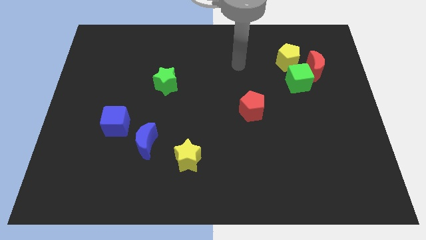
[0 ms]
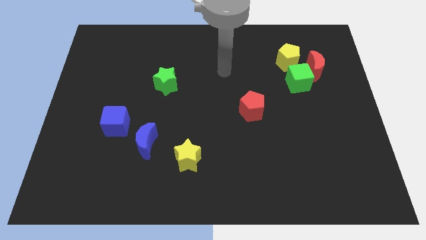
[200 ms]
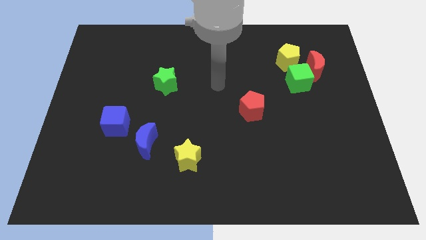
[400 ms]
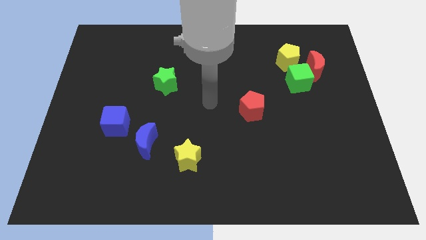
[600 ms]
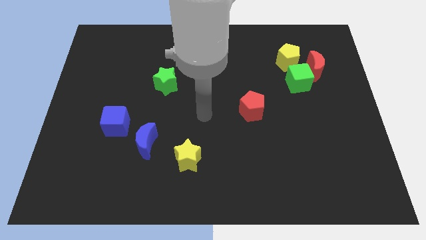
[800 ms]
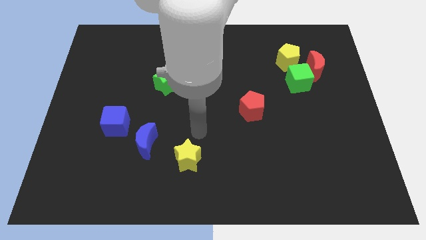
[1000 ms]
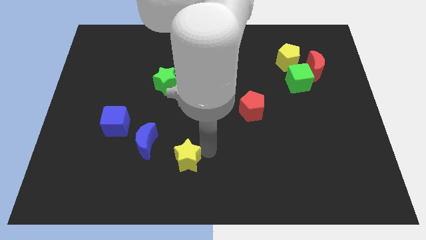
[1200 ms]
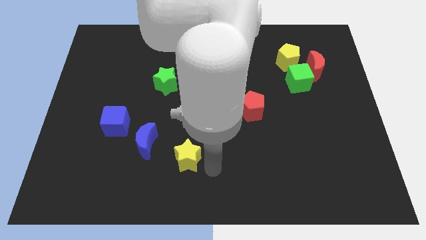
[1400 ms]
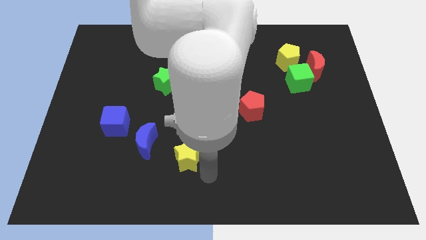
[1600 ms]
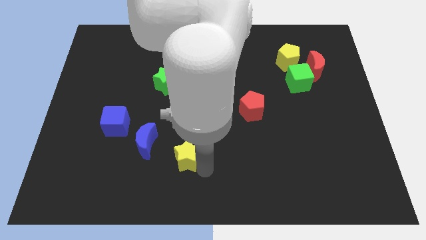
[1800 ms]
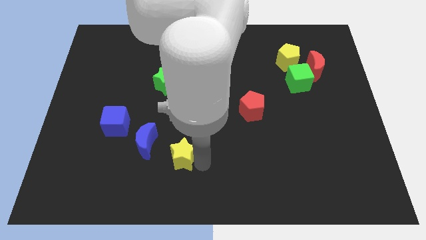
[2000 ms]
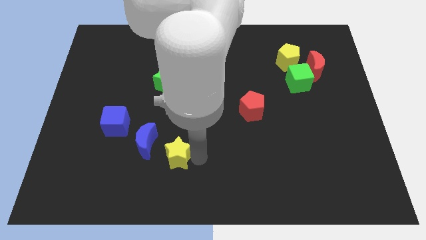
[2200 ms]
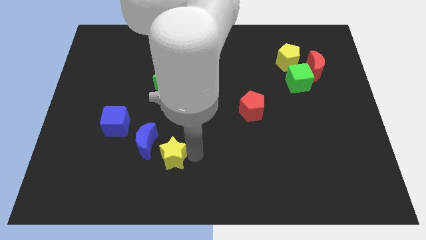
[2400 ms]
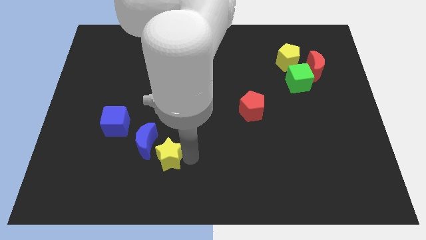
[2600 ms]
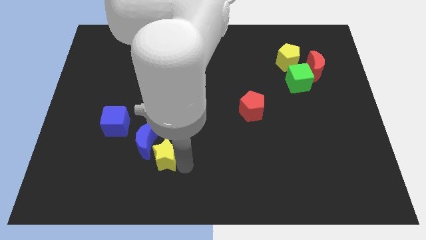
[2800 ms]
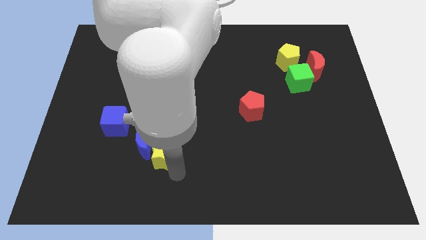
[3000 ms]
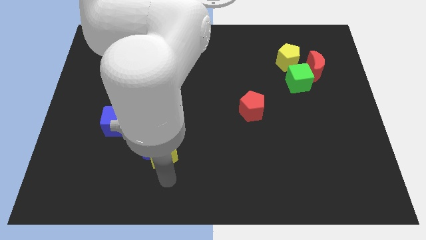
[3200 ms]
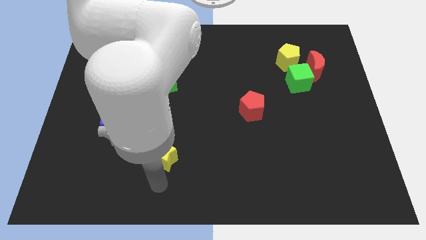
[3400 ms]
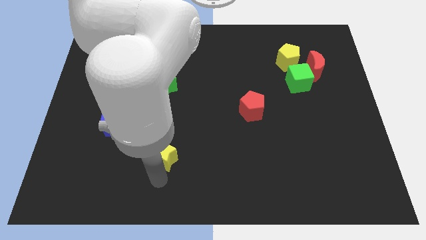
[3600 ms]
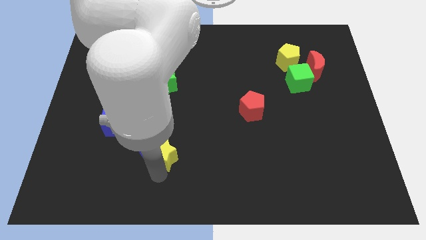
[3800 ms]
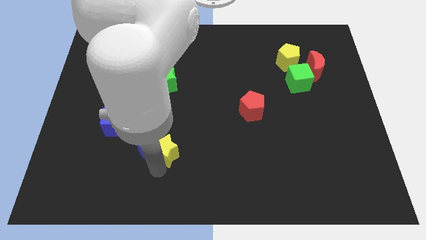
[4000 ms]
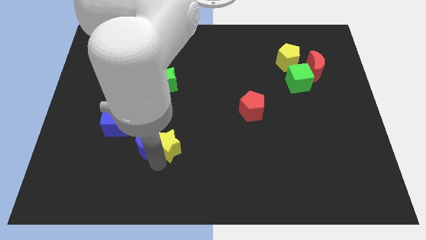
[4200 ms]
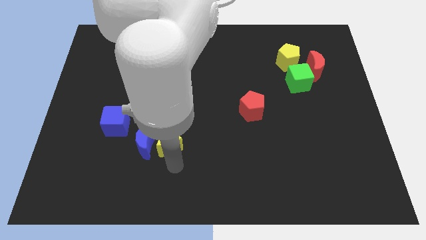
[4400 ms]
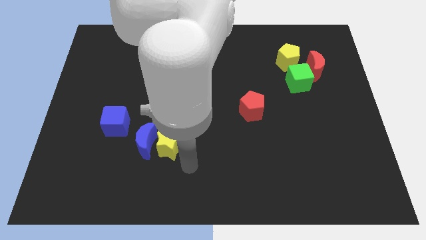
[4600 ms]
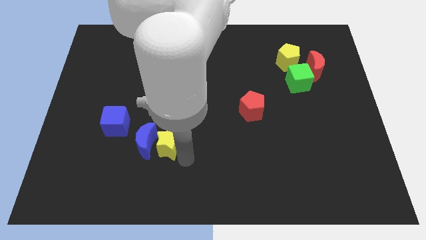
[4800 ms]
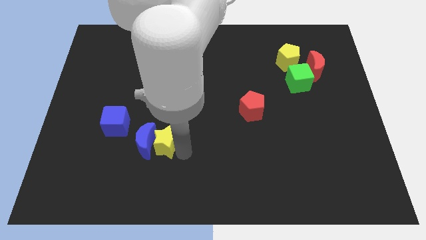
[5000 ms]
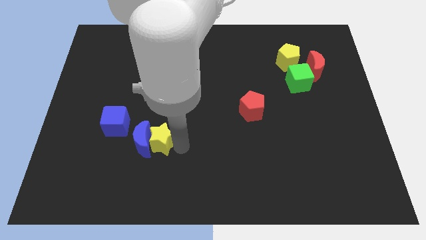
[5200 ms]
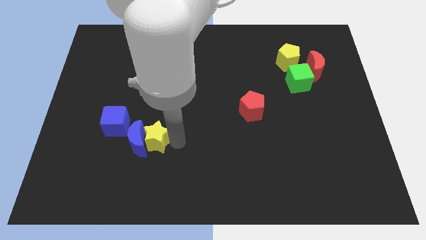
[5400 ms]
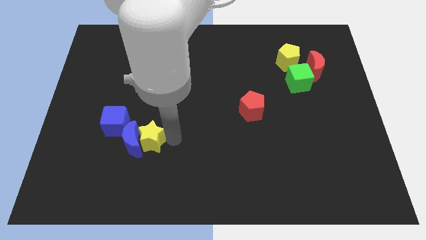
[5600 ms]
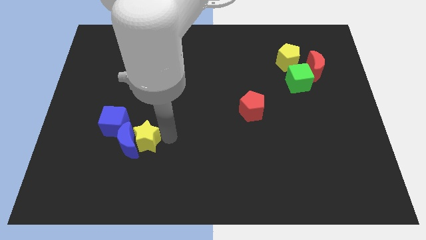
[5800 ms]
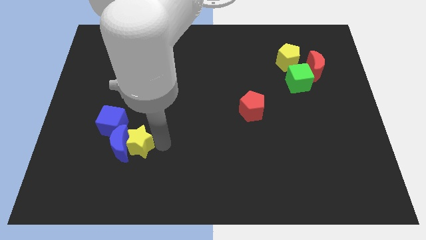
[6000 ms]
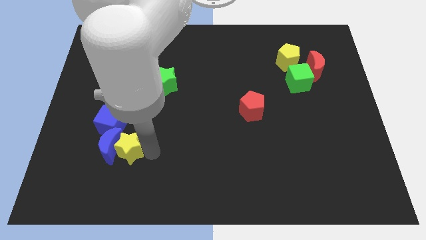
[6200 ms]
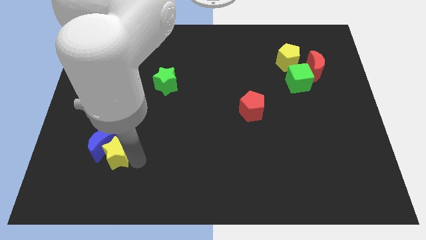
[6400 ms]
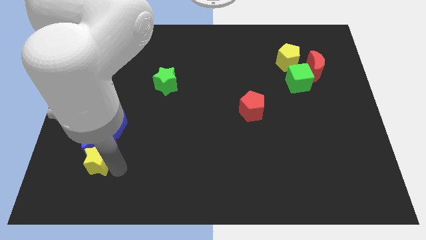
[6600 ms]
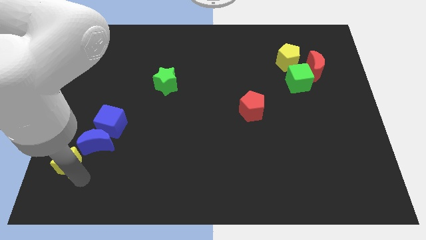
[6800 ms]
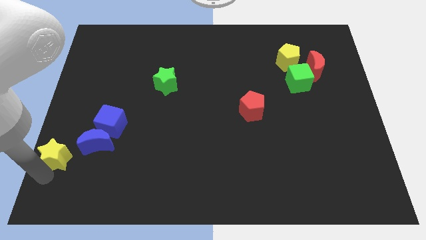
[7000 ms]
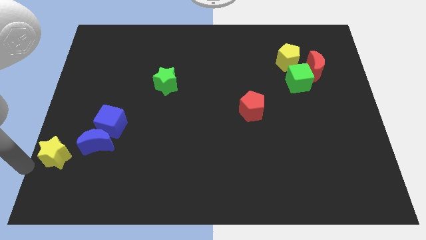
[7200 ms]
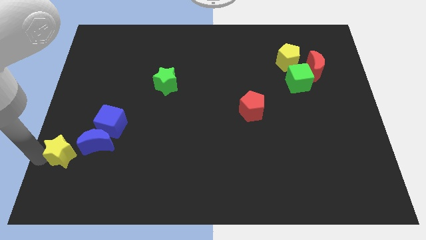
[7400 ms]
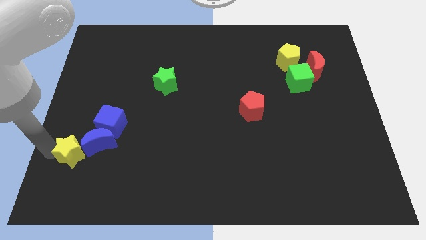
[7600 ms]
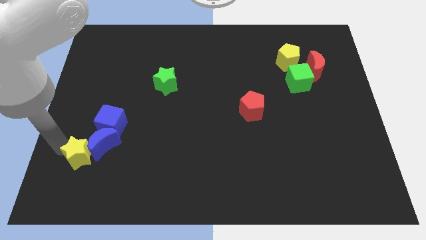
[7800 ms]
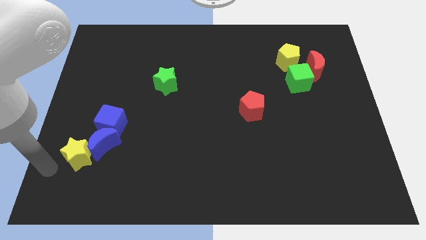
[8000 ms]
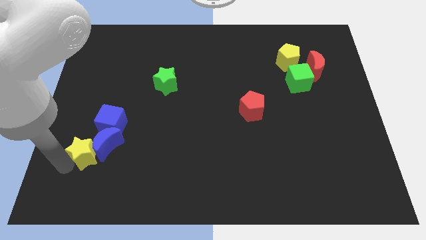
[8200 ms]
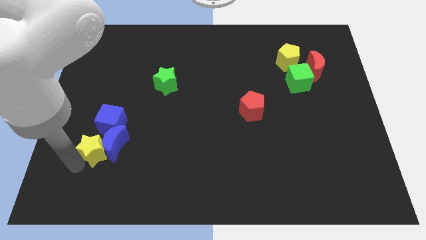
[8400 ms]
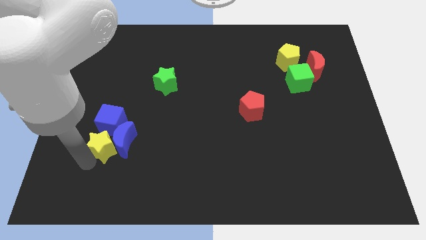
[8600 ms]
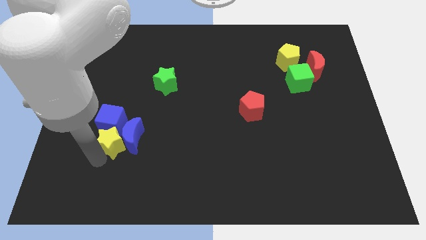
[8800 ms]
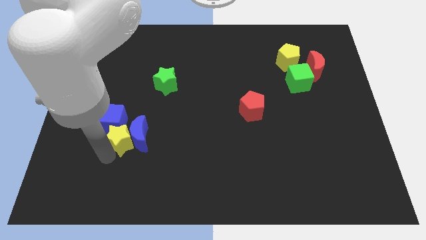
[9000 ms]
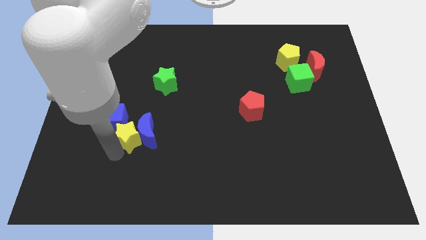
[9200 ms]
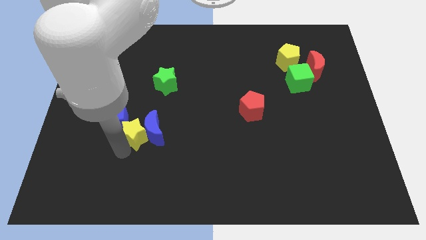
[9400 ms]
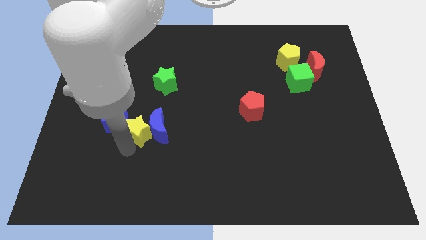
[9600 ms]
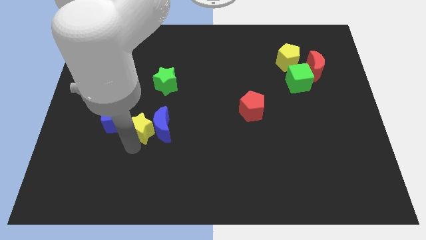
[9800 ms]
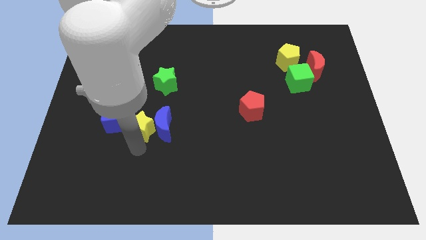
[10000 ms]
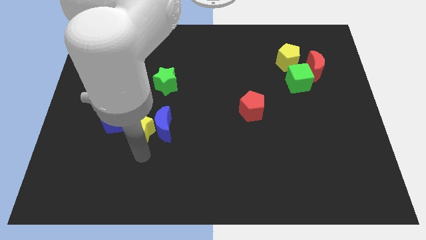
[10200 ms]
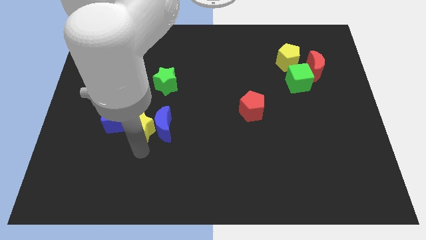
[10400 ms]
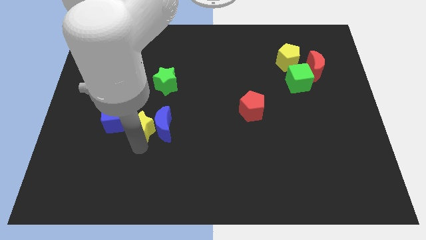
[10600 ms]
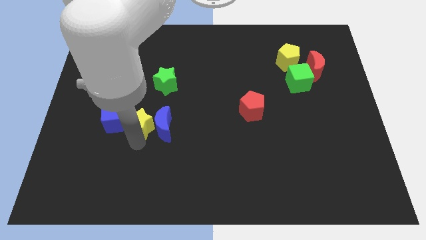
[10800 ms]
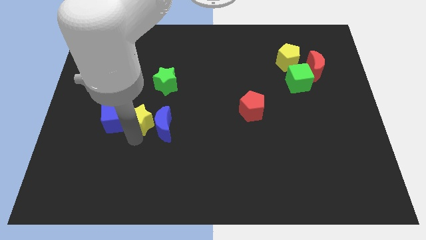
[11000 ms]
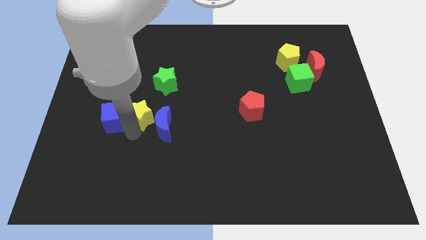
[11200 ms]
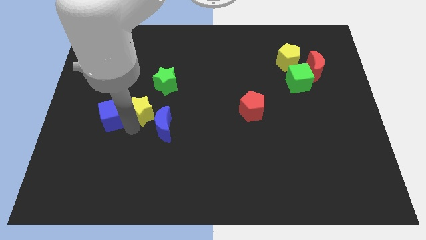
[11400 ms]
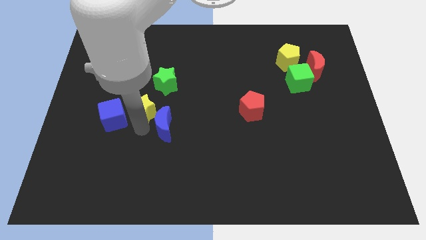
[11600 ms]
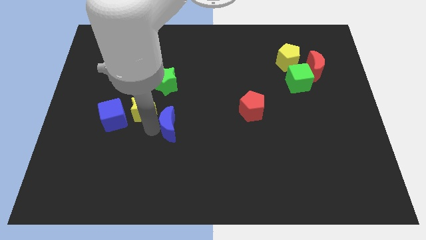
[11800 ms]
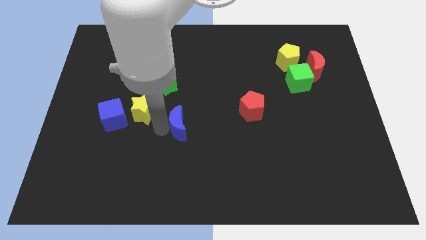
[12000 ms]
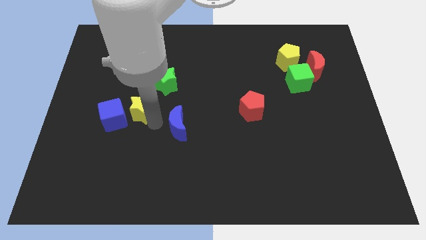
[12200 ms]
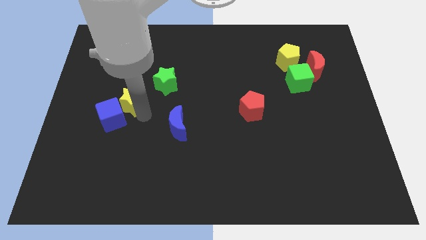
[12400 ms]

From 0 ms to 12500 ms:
slide the yellow star above the blue cube

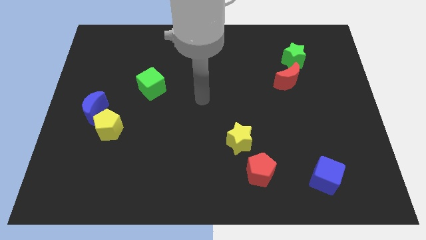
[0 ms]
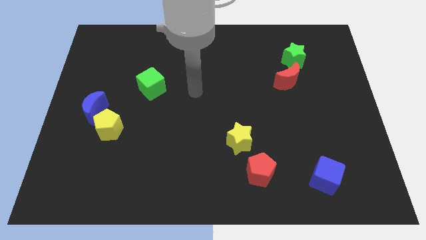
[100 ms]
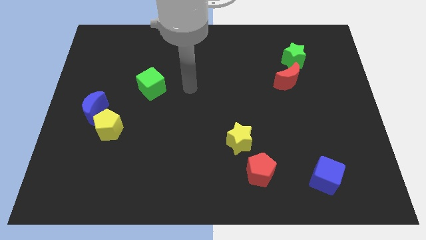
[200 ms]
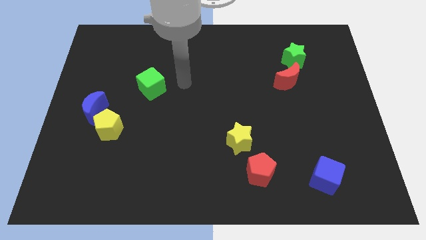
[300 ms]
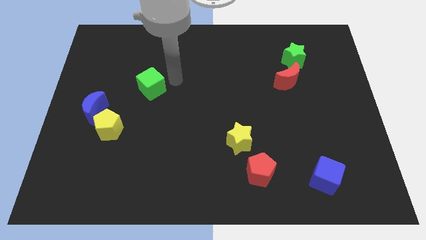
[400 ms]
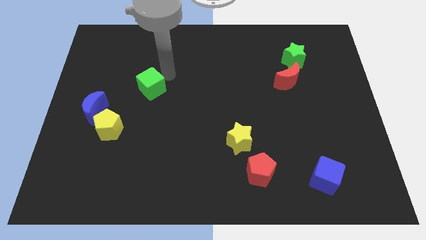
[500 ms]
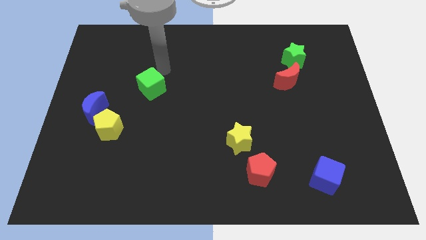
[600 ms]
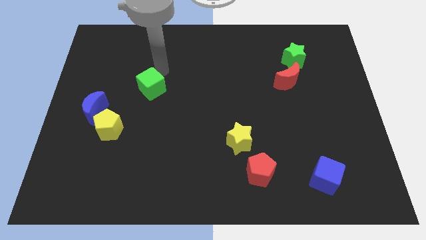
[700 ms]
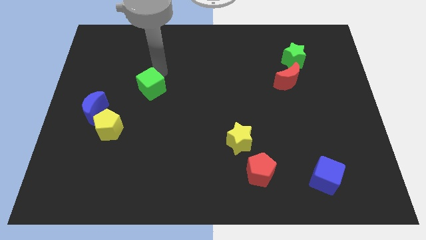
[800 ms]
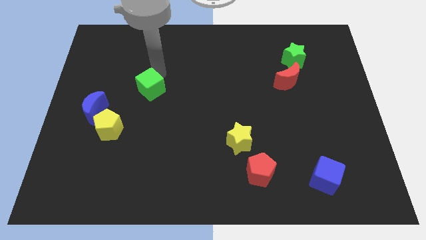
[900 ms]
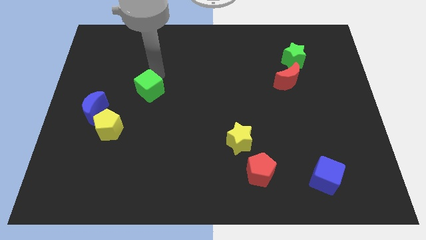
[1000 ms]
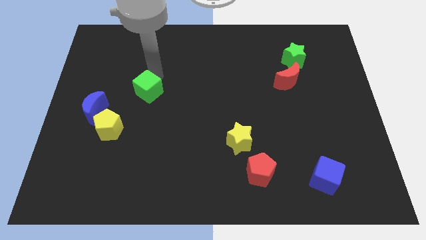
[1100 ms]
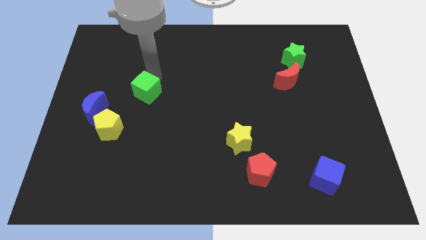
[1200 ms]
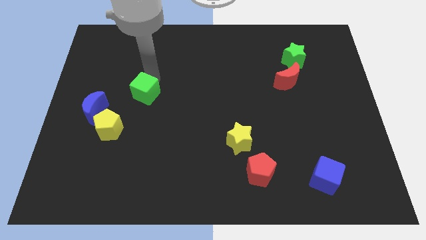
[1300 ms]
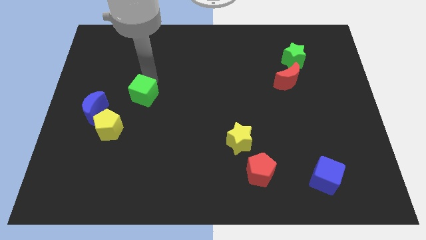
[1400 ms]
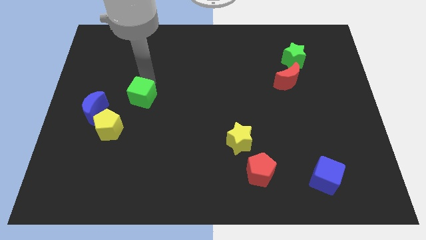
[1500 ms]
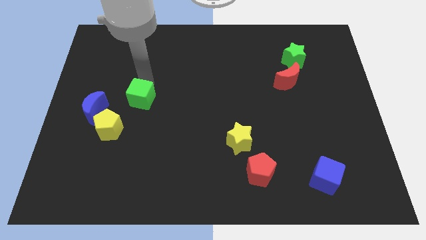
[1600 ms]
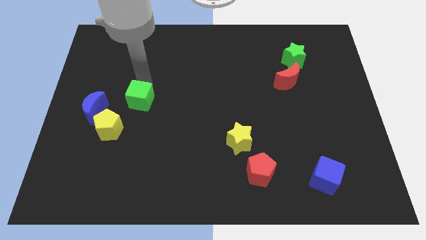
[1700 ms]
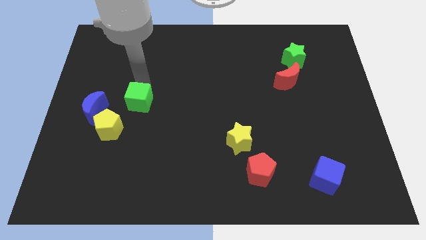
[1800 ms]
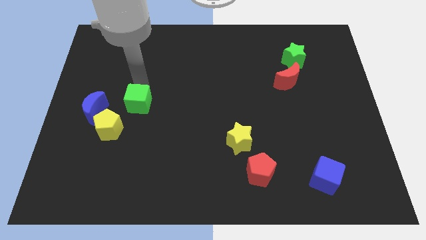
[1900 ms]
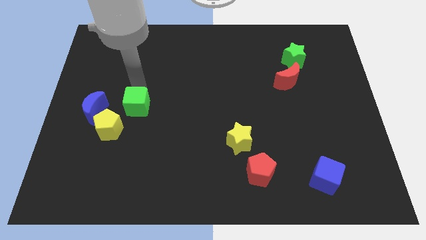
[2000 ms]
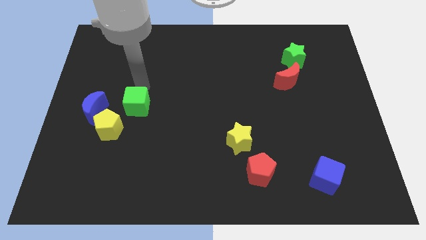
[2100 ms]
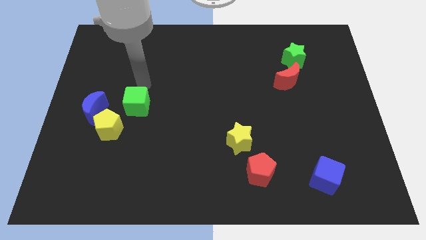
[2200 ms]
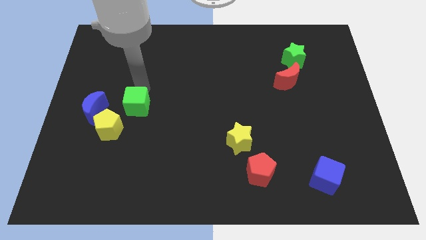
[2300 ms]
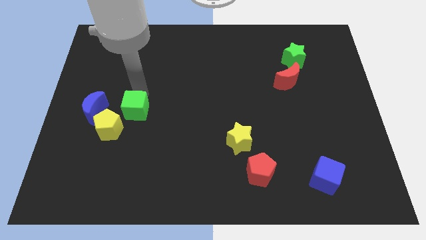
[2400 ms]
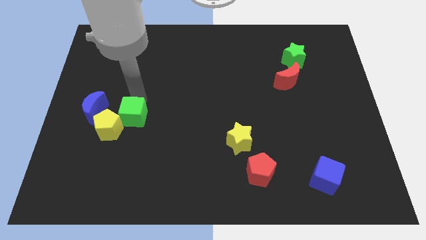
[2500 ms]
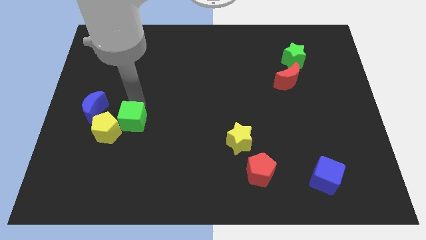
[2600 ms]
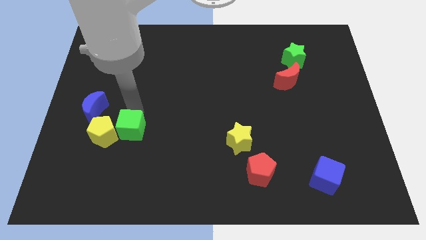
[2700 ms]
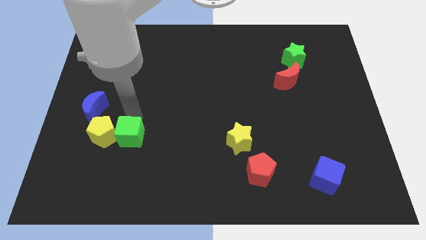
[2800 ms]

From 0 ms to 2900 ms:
push the green cube to the bottom right side of the yellow pentagon
